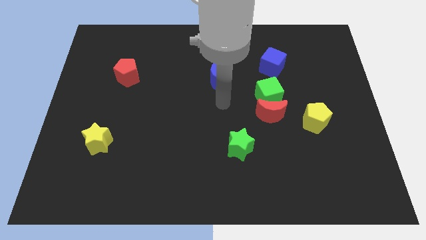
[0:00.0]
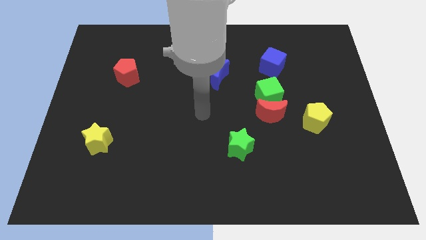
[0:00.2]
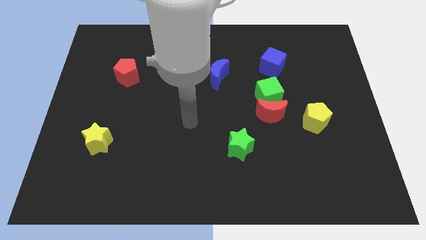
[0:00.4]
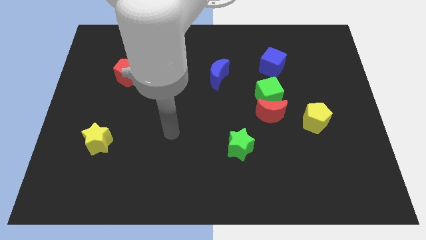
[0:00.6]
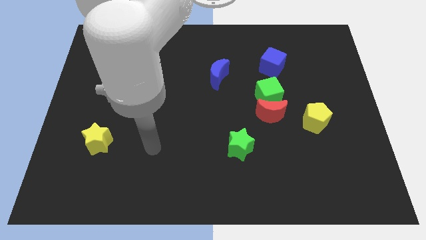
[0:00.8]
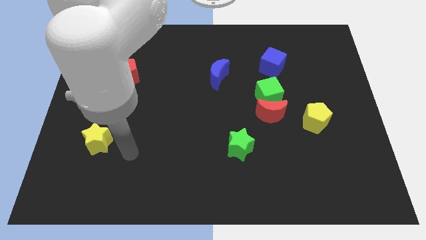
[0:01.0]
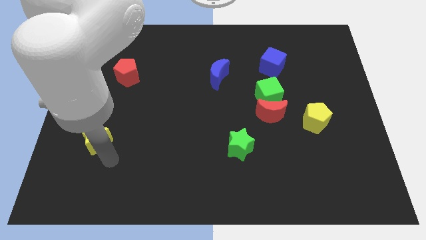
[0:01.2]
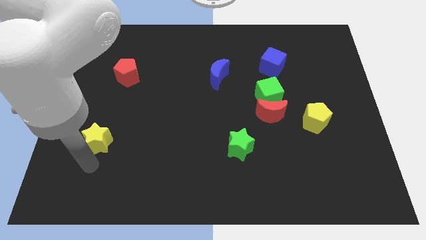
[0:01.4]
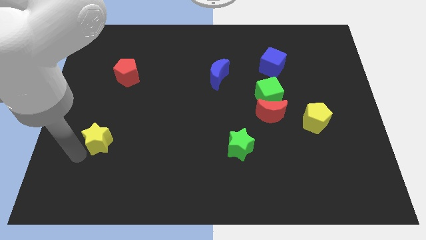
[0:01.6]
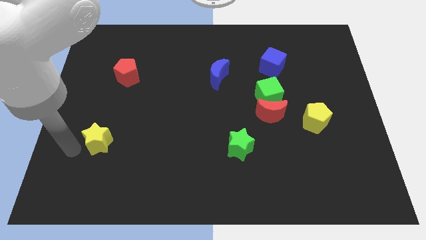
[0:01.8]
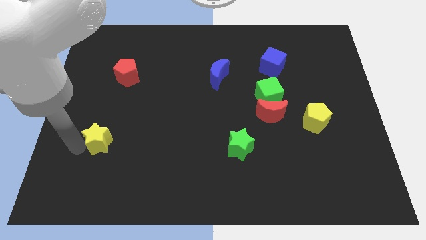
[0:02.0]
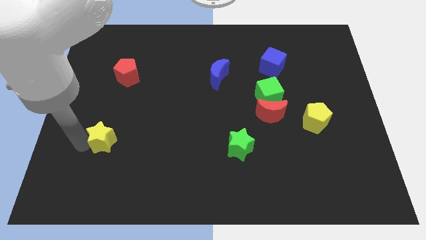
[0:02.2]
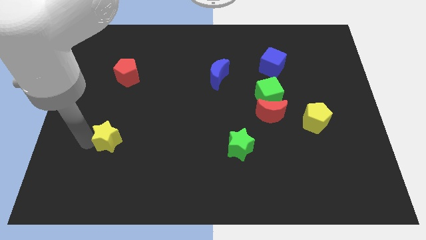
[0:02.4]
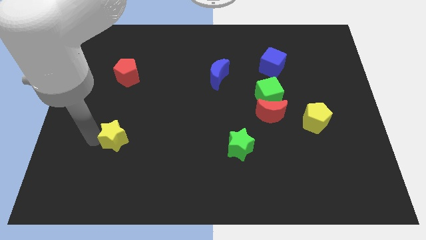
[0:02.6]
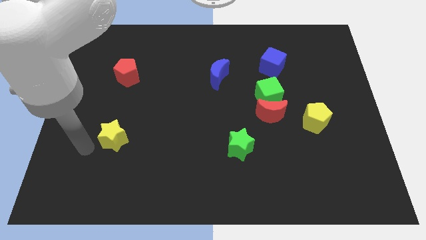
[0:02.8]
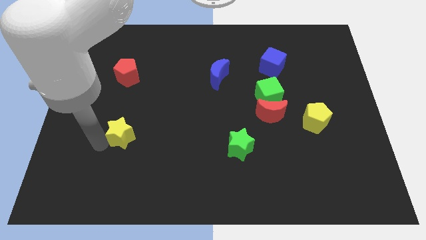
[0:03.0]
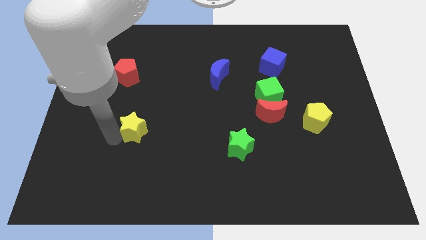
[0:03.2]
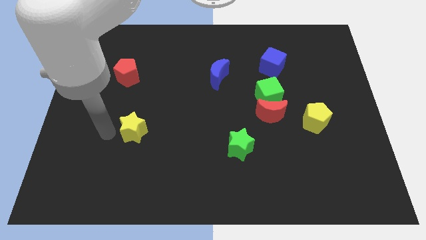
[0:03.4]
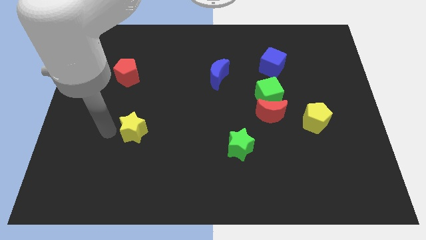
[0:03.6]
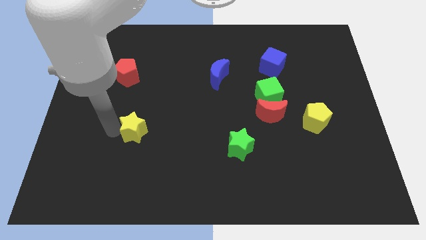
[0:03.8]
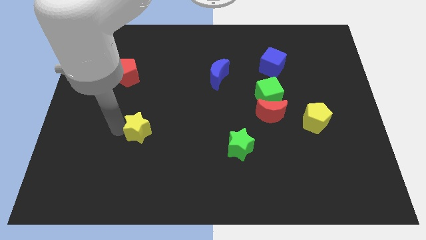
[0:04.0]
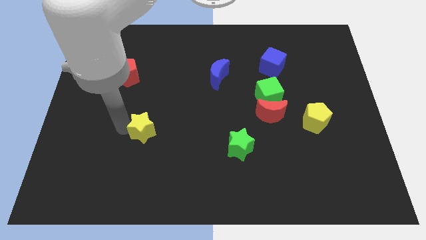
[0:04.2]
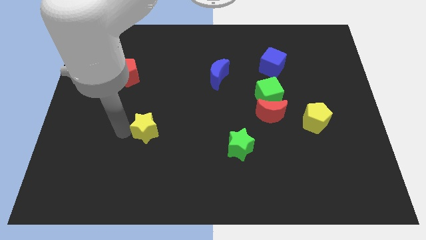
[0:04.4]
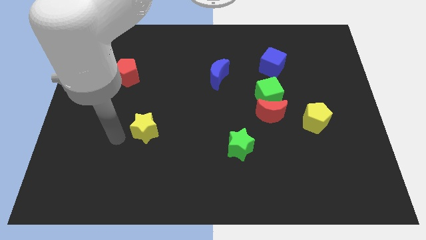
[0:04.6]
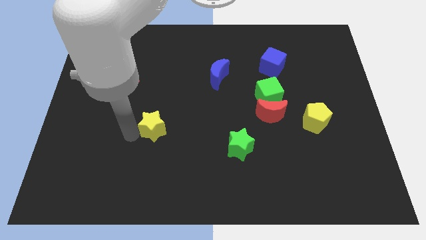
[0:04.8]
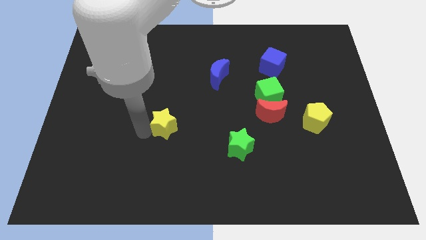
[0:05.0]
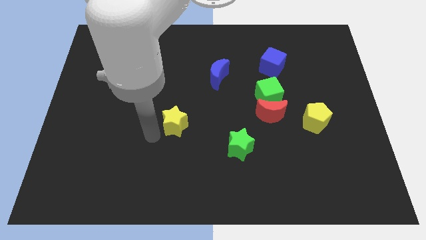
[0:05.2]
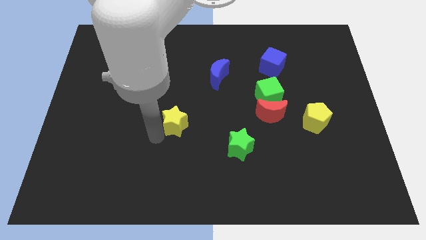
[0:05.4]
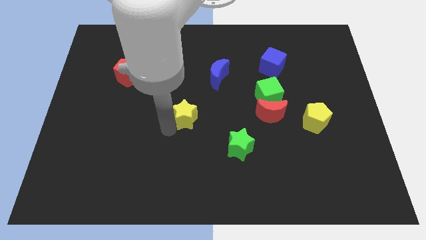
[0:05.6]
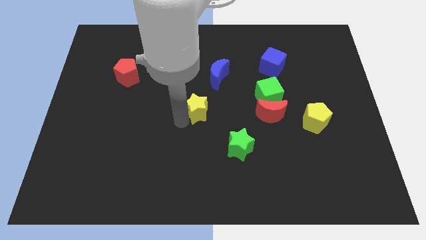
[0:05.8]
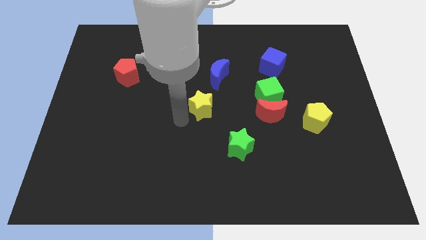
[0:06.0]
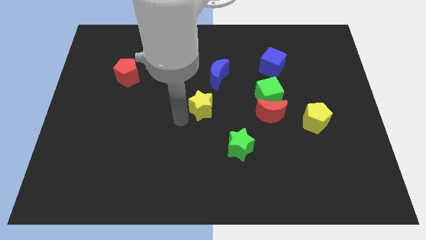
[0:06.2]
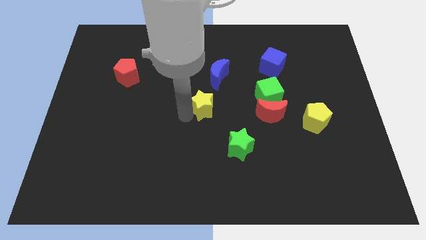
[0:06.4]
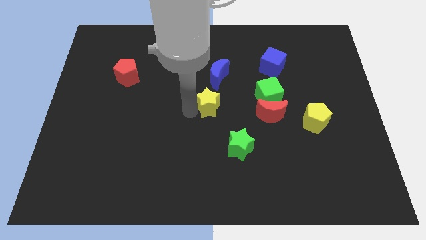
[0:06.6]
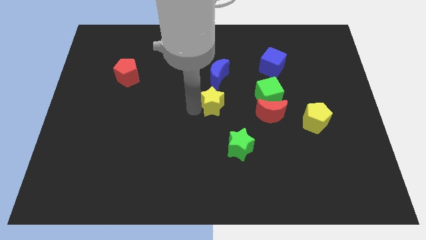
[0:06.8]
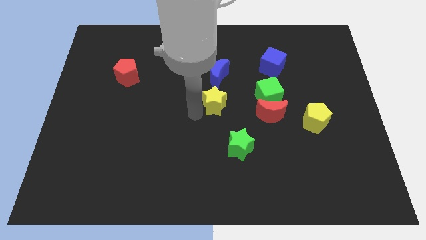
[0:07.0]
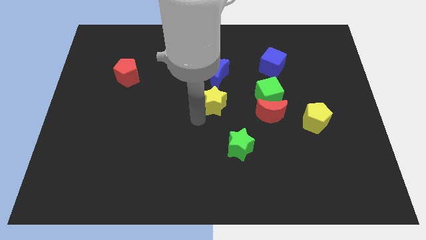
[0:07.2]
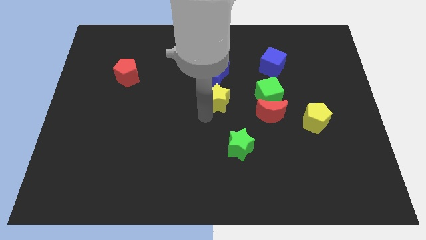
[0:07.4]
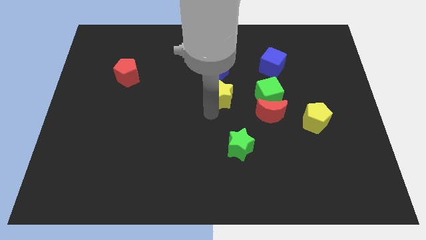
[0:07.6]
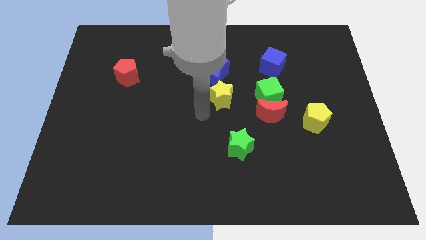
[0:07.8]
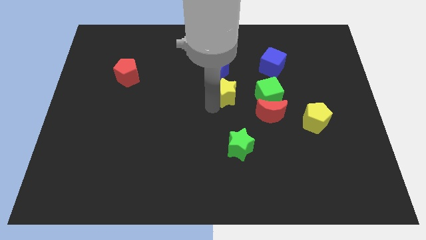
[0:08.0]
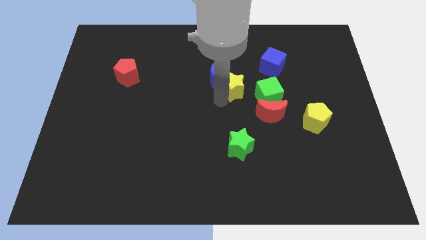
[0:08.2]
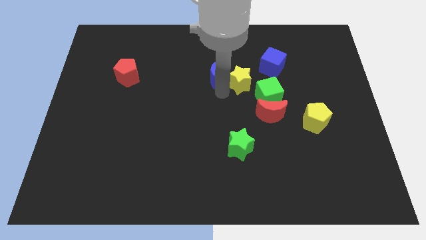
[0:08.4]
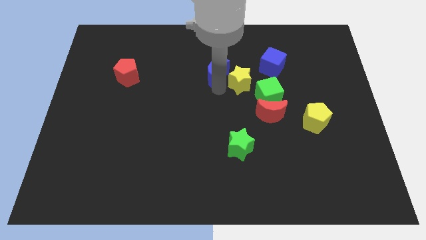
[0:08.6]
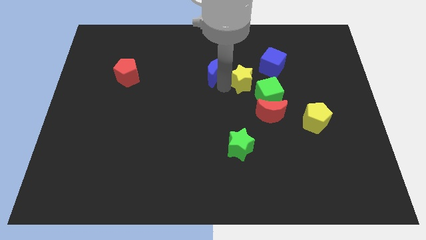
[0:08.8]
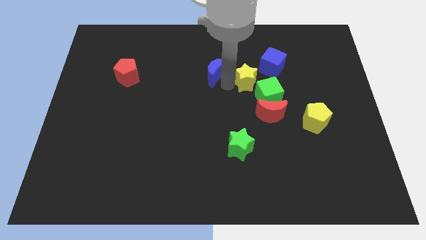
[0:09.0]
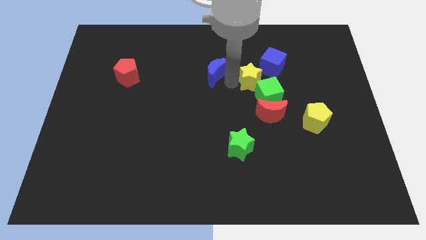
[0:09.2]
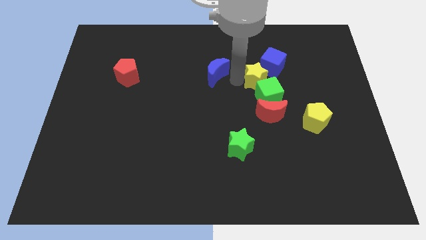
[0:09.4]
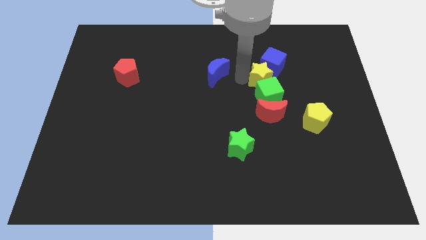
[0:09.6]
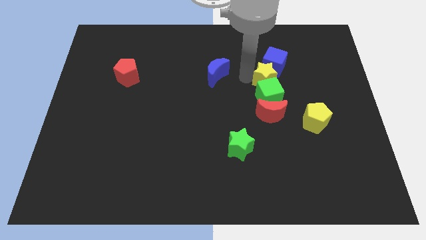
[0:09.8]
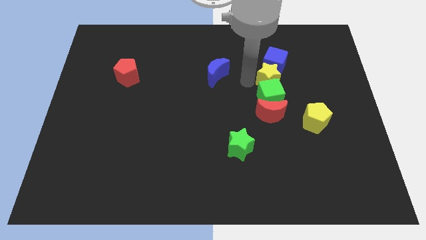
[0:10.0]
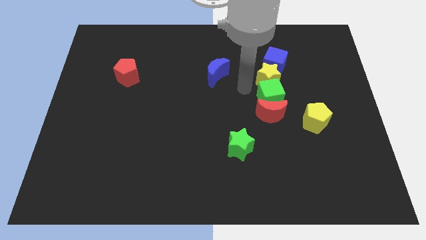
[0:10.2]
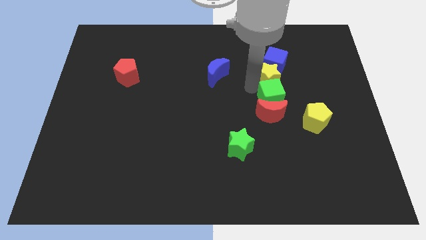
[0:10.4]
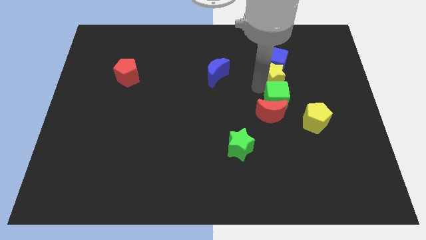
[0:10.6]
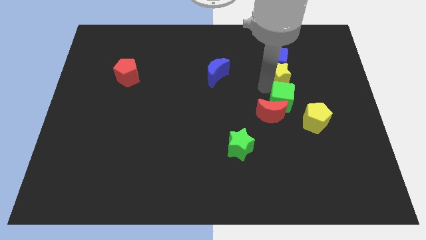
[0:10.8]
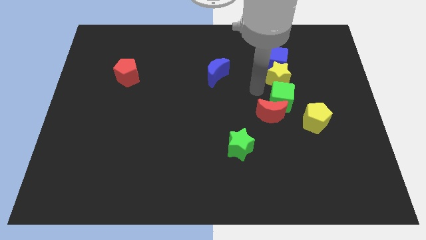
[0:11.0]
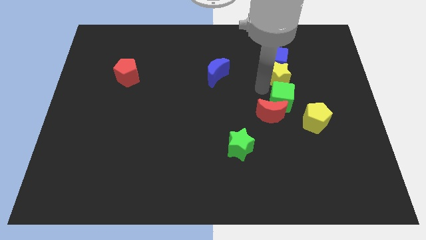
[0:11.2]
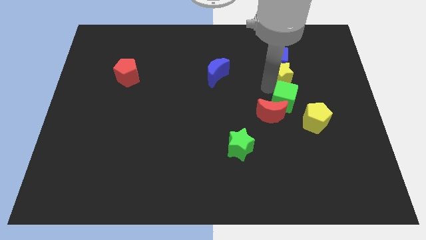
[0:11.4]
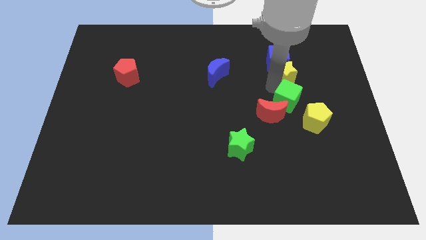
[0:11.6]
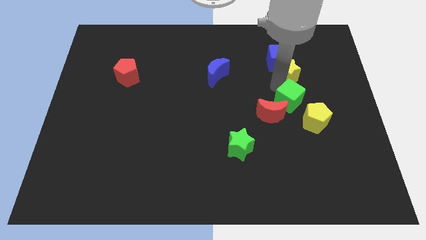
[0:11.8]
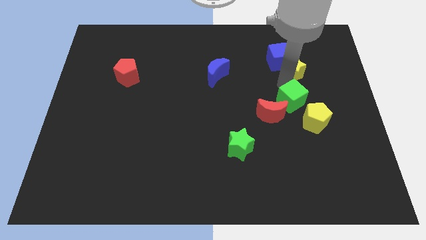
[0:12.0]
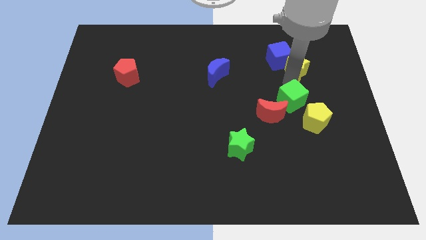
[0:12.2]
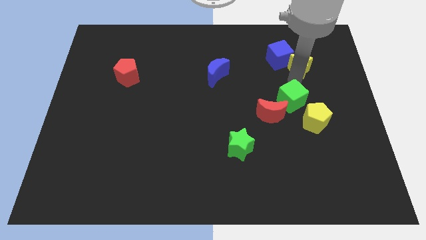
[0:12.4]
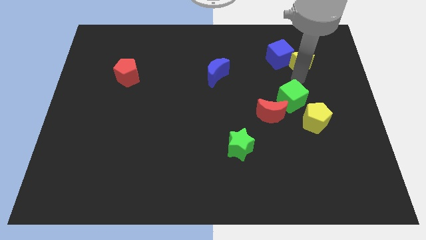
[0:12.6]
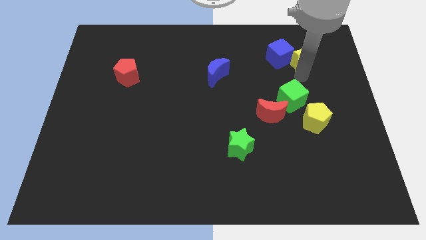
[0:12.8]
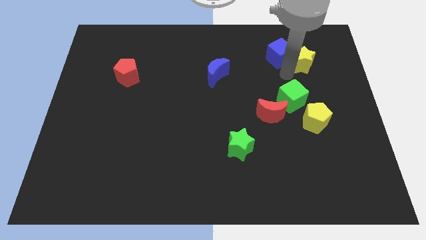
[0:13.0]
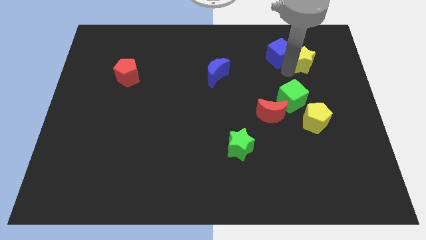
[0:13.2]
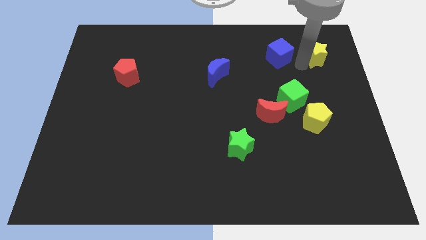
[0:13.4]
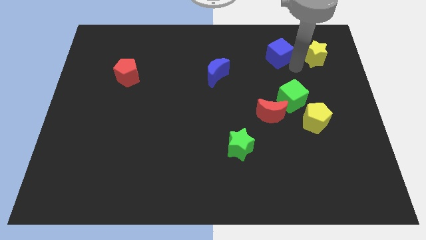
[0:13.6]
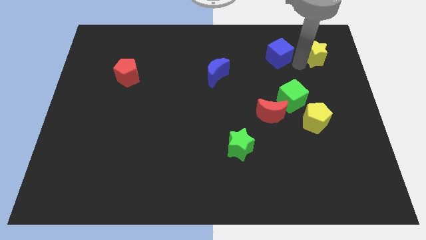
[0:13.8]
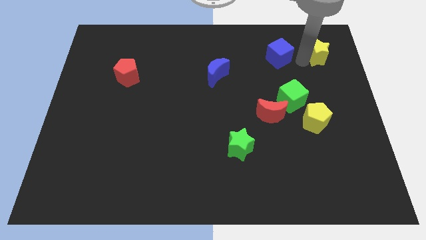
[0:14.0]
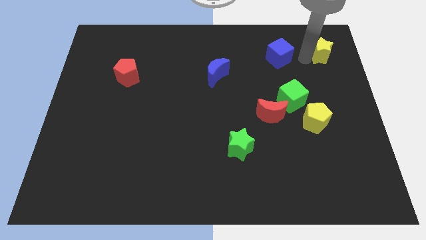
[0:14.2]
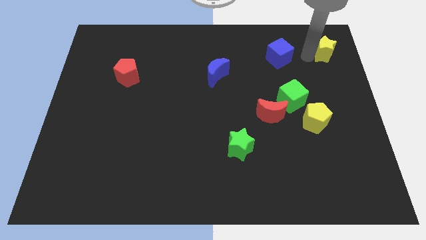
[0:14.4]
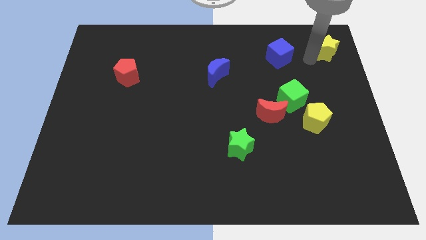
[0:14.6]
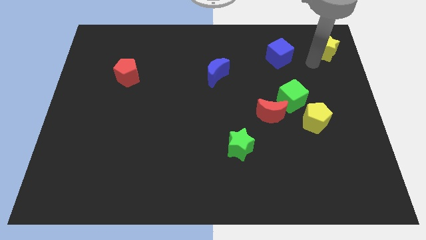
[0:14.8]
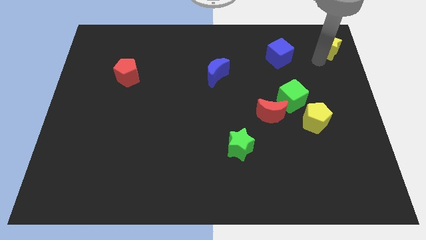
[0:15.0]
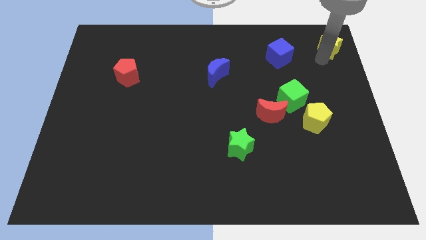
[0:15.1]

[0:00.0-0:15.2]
push the yellow star to the top right
